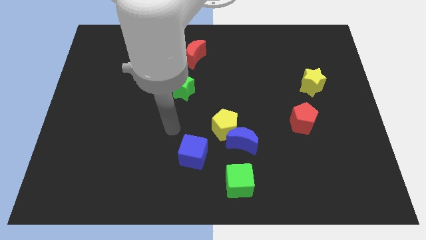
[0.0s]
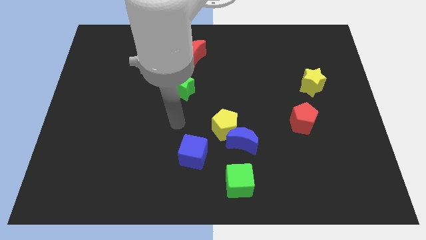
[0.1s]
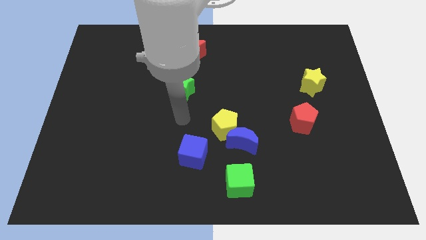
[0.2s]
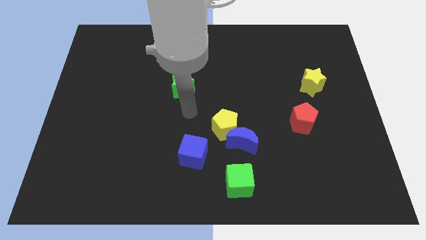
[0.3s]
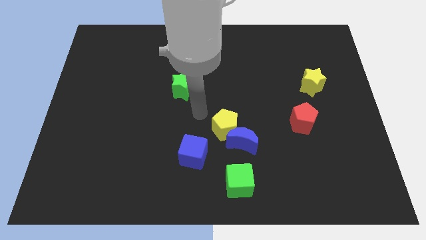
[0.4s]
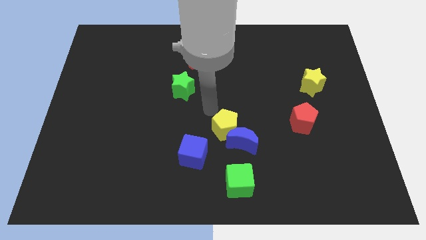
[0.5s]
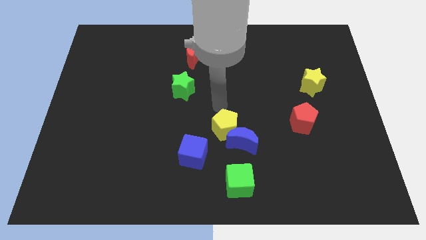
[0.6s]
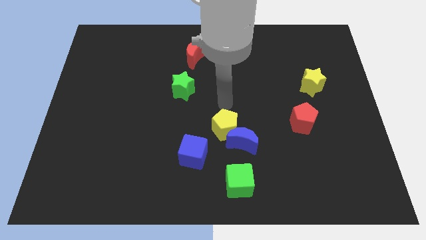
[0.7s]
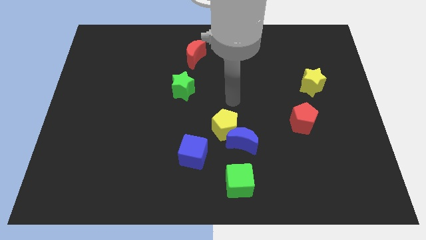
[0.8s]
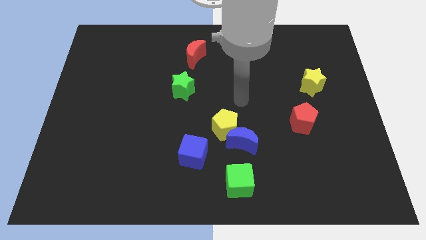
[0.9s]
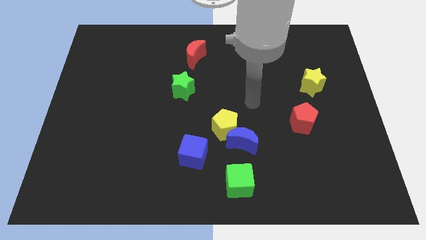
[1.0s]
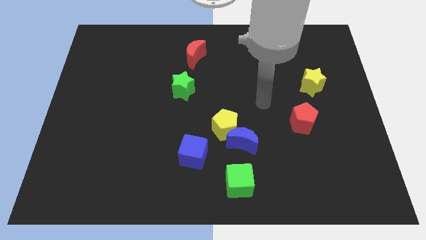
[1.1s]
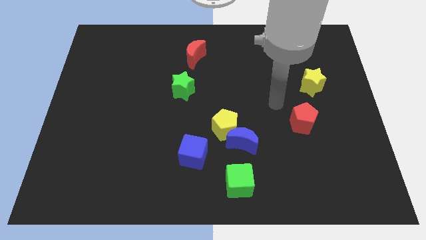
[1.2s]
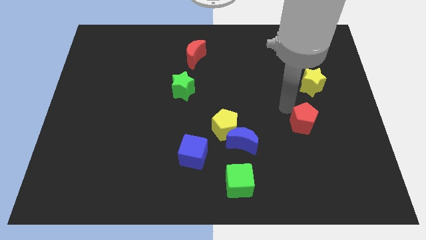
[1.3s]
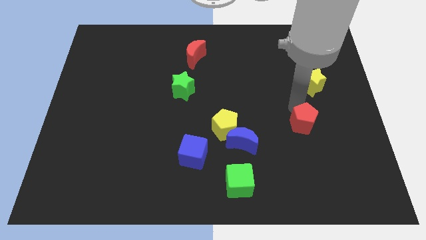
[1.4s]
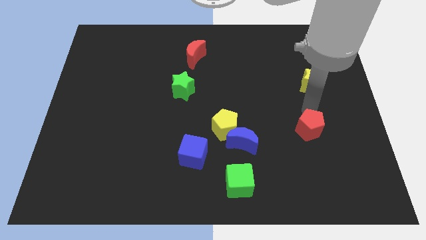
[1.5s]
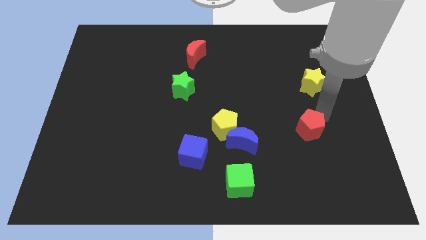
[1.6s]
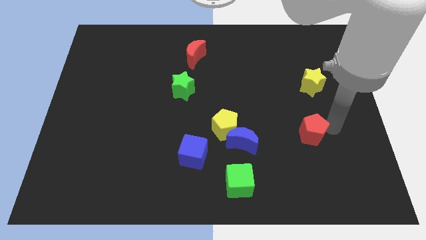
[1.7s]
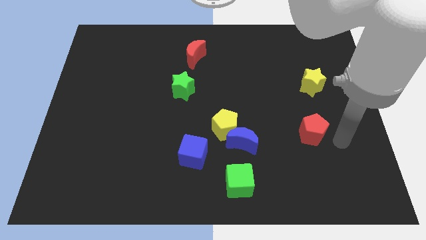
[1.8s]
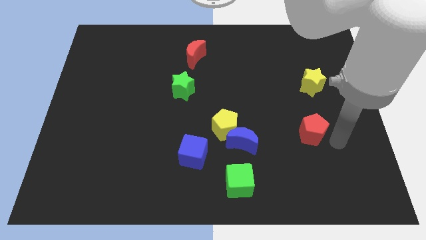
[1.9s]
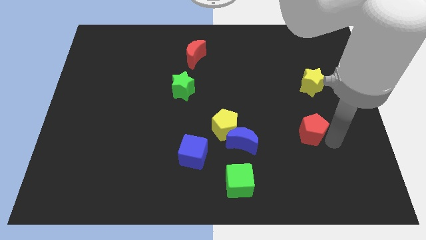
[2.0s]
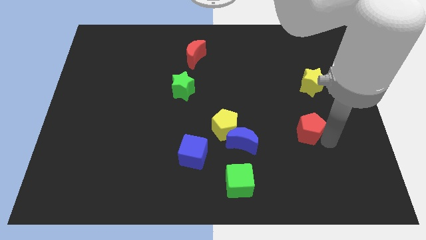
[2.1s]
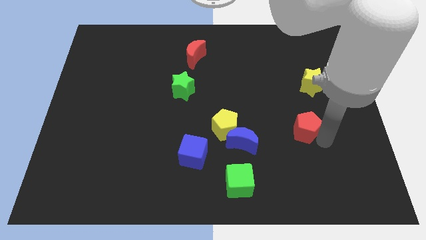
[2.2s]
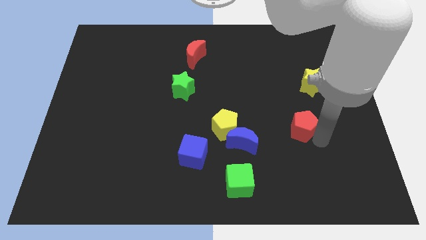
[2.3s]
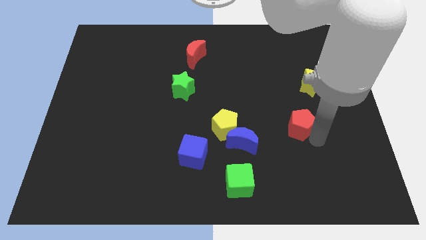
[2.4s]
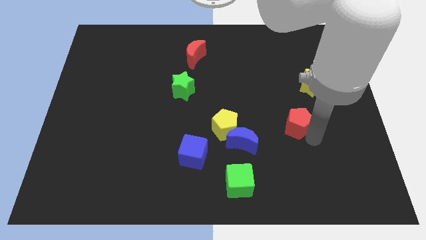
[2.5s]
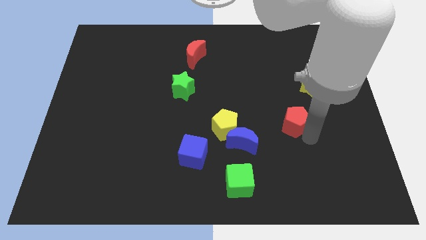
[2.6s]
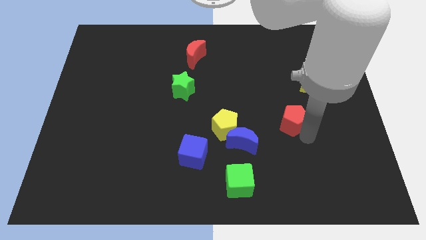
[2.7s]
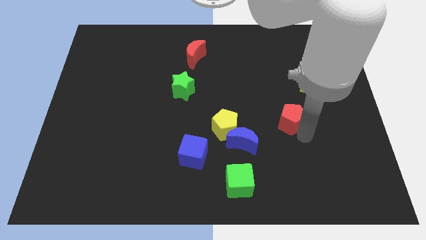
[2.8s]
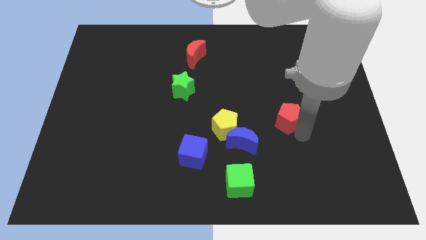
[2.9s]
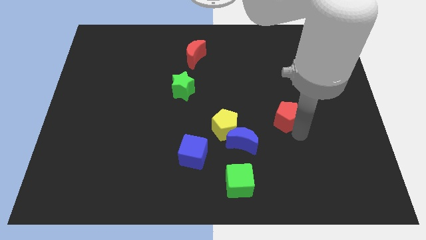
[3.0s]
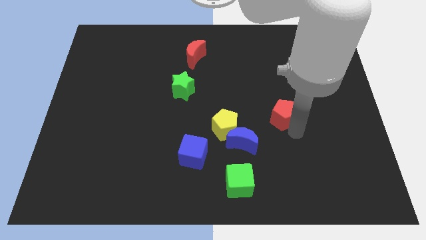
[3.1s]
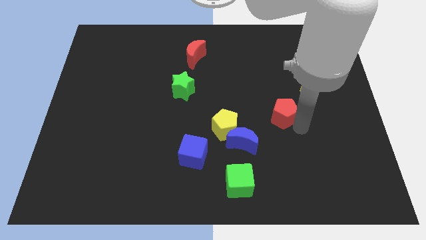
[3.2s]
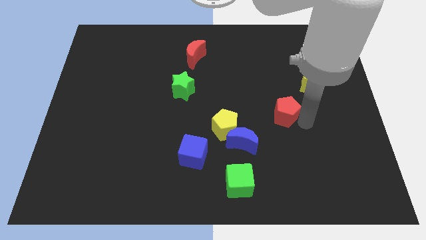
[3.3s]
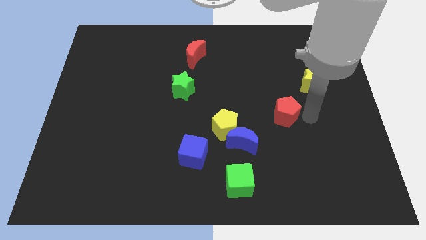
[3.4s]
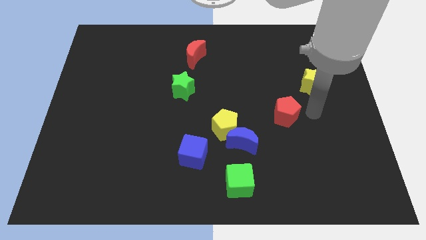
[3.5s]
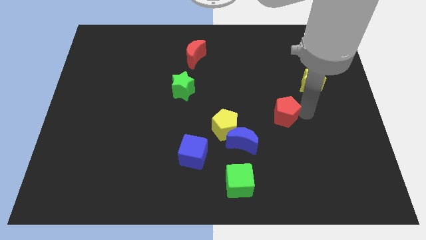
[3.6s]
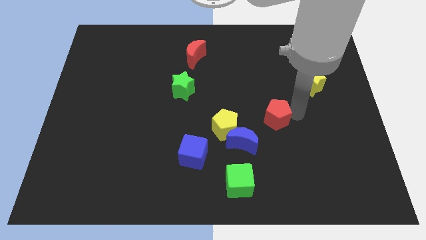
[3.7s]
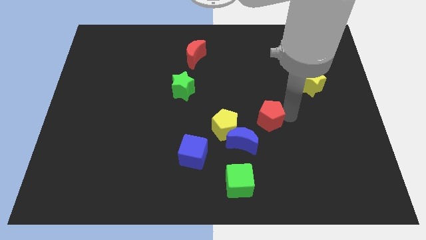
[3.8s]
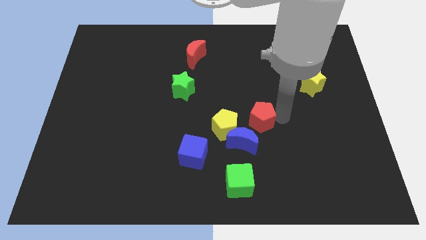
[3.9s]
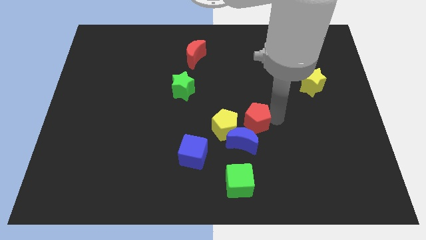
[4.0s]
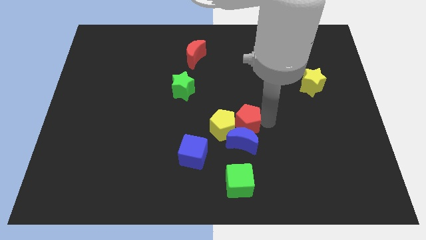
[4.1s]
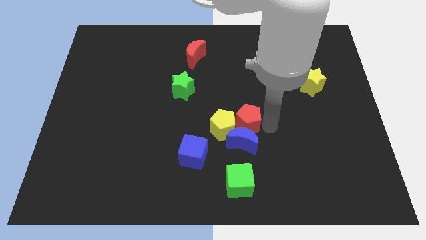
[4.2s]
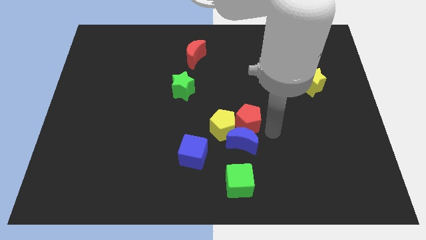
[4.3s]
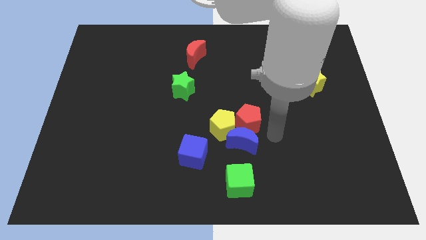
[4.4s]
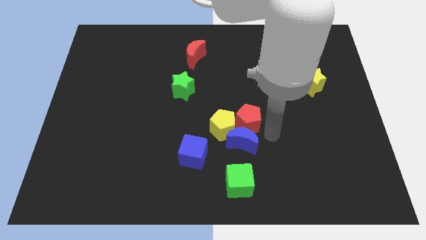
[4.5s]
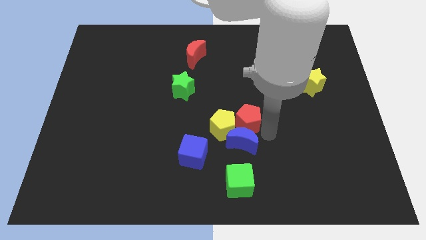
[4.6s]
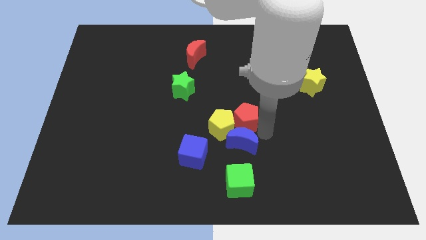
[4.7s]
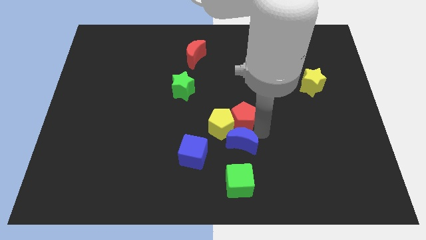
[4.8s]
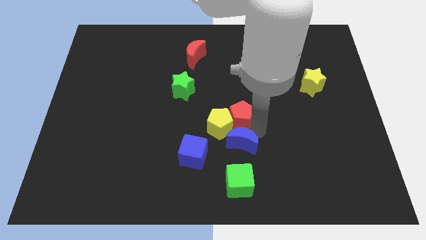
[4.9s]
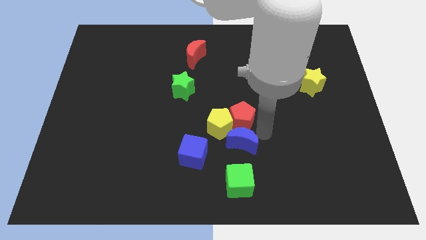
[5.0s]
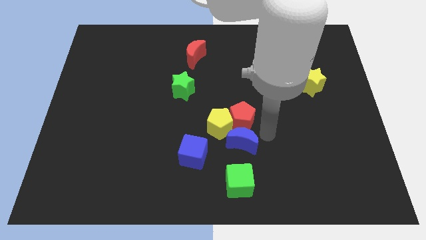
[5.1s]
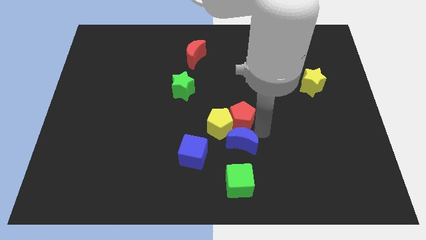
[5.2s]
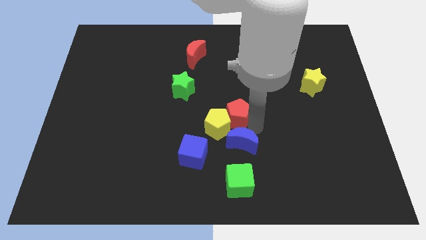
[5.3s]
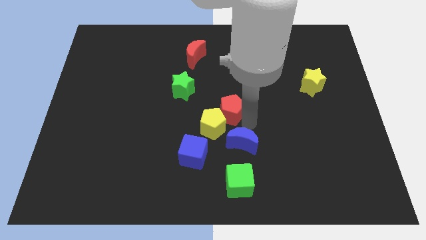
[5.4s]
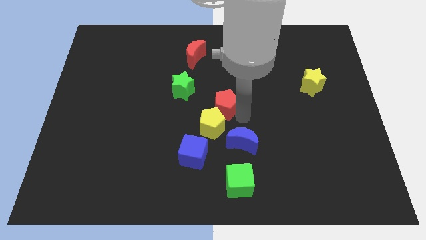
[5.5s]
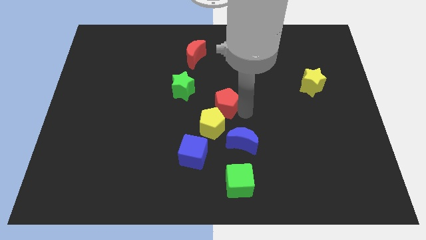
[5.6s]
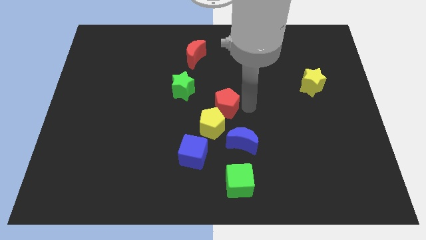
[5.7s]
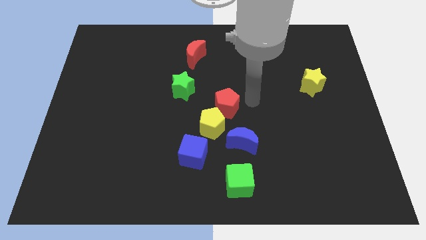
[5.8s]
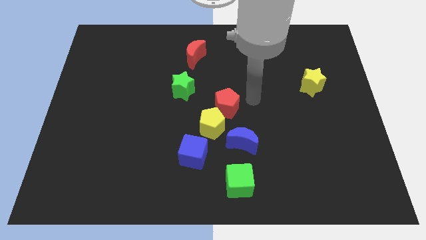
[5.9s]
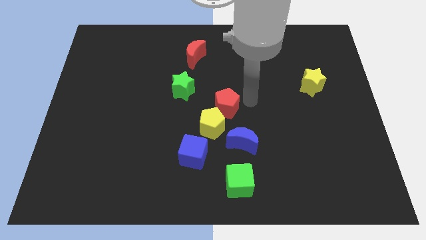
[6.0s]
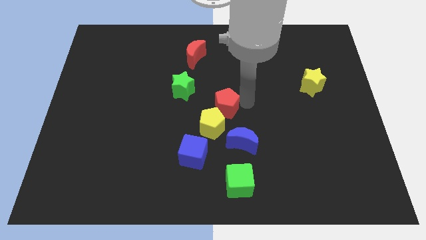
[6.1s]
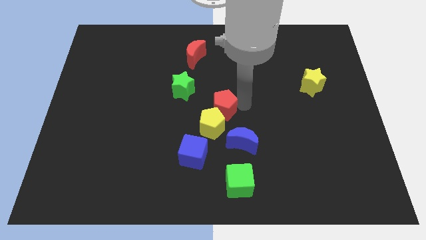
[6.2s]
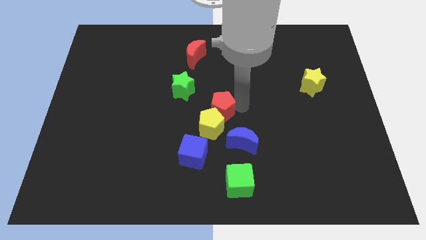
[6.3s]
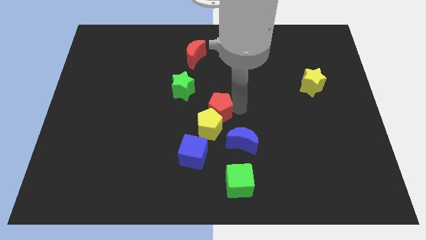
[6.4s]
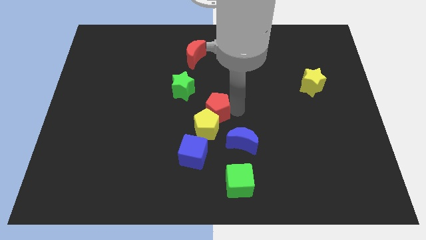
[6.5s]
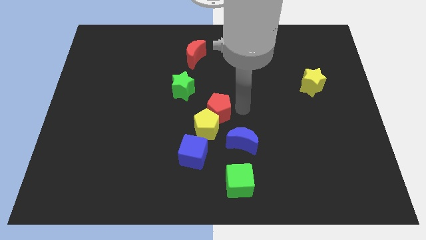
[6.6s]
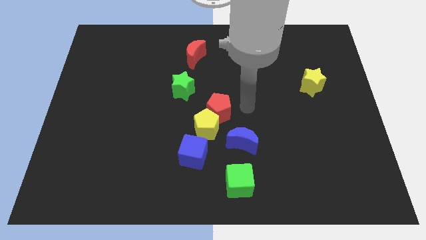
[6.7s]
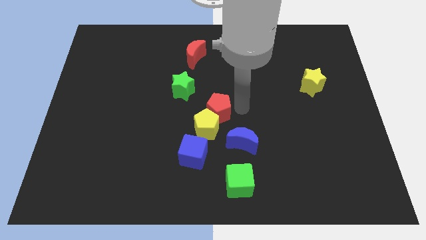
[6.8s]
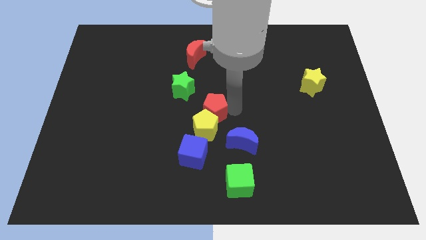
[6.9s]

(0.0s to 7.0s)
slide the red pentagon above the blue cube

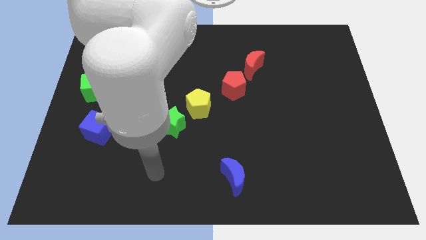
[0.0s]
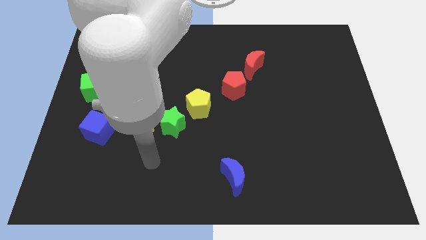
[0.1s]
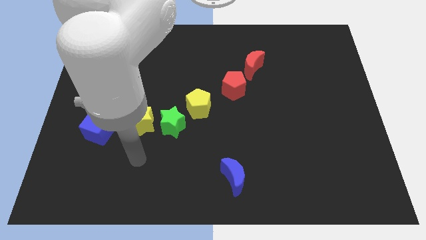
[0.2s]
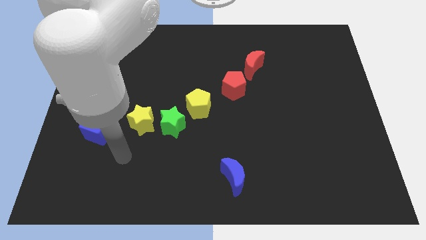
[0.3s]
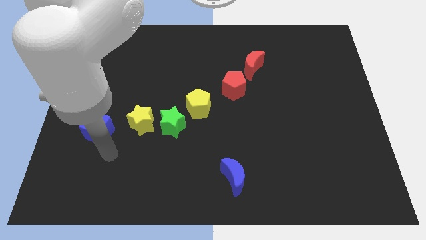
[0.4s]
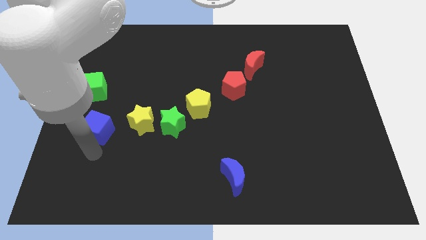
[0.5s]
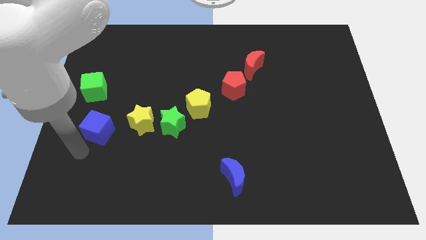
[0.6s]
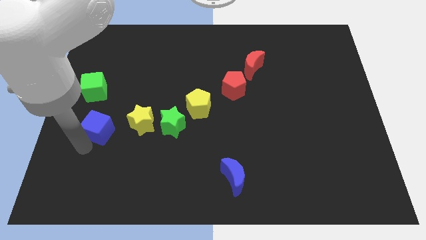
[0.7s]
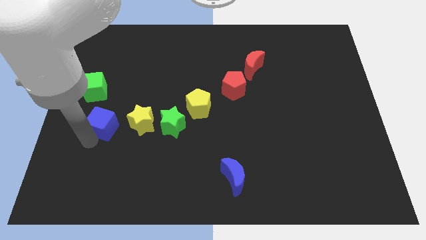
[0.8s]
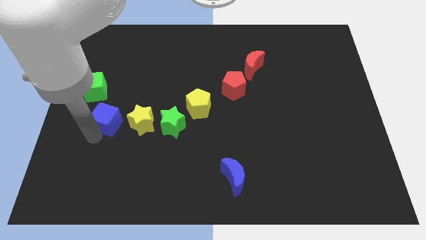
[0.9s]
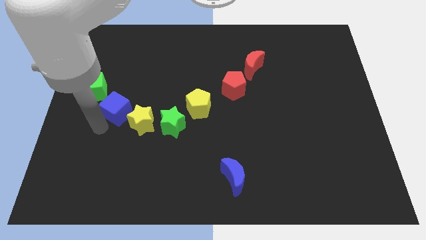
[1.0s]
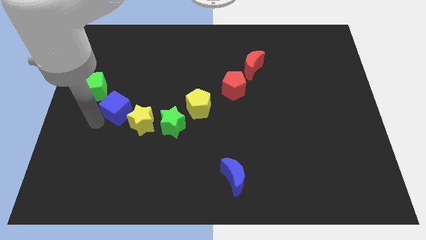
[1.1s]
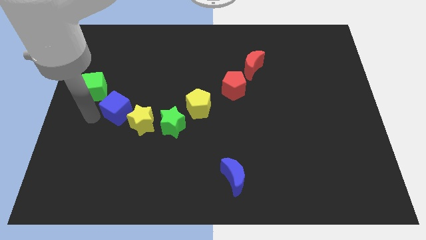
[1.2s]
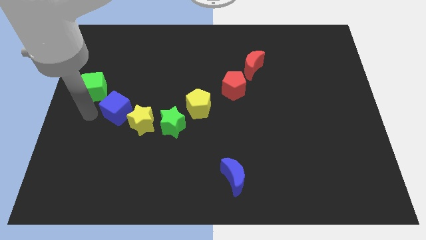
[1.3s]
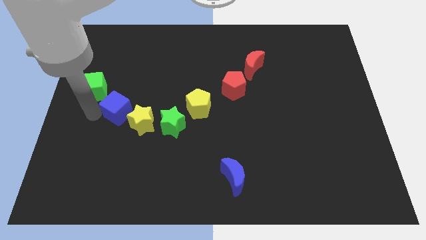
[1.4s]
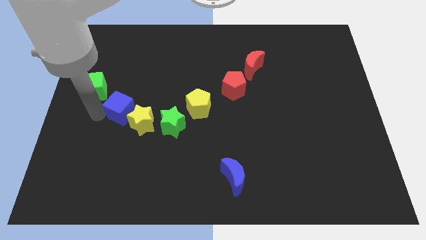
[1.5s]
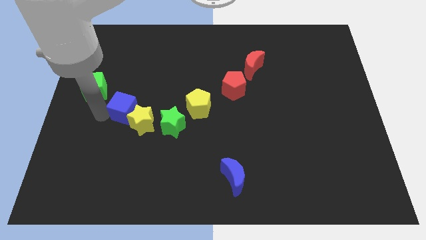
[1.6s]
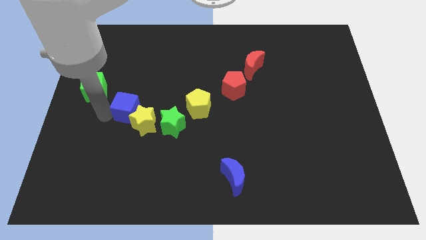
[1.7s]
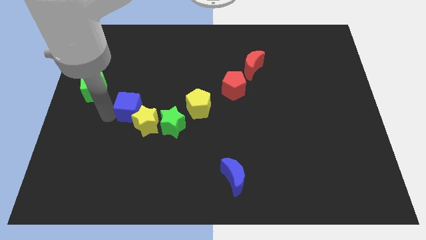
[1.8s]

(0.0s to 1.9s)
push the blue cube to the left of the yellow pentagon
